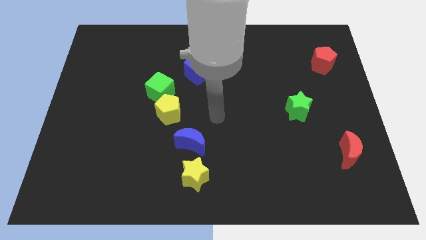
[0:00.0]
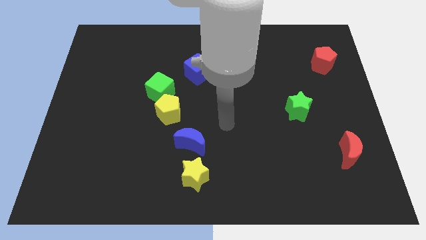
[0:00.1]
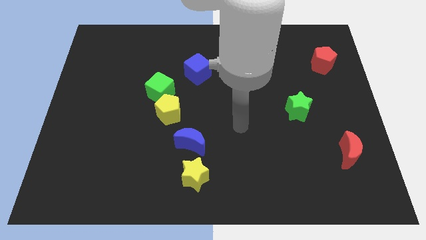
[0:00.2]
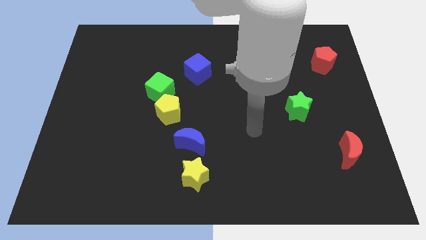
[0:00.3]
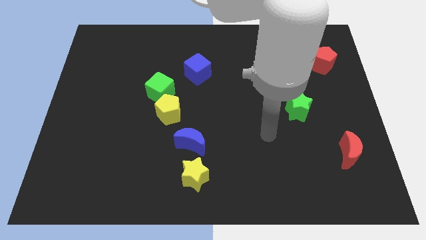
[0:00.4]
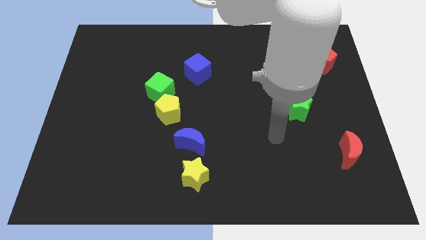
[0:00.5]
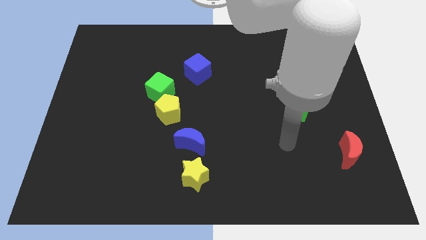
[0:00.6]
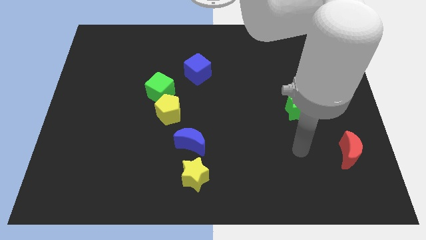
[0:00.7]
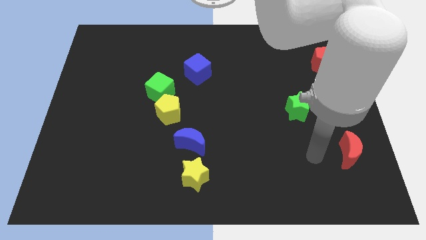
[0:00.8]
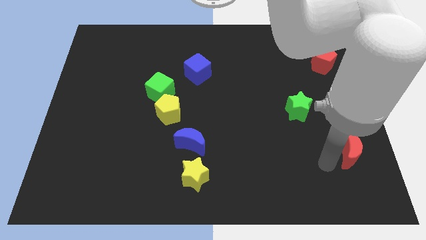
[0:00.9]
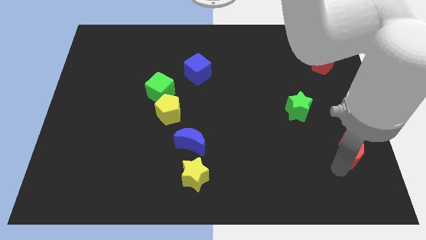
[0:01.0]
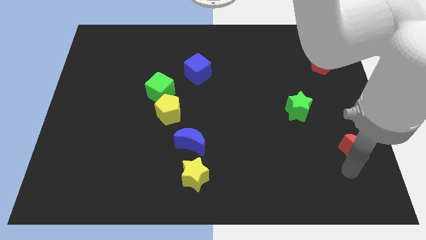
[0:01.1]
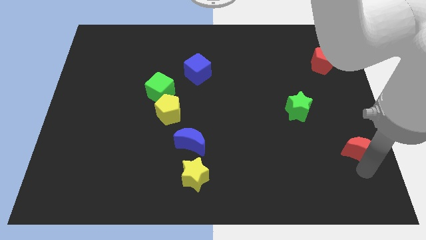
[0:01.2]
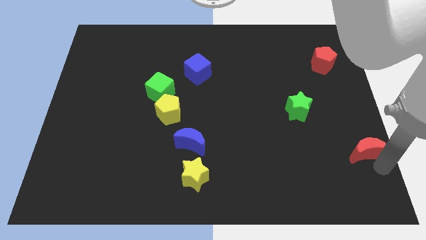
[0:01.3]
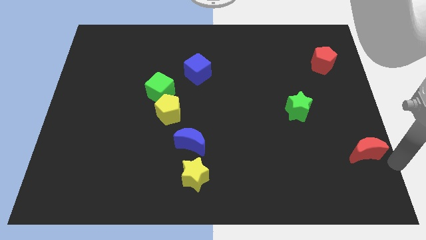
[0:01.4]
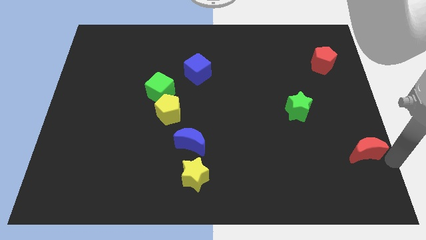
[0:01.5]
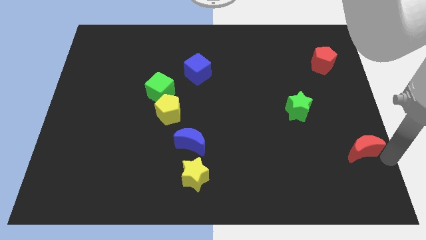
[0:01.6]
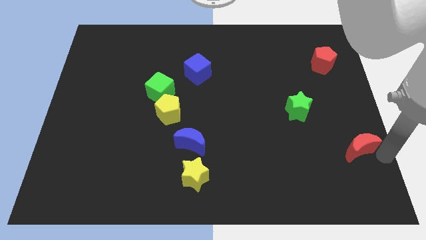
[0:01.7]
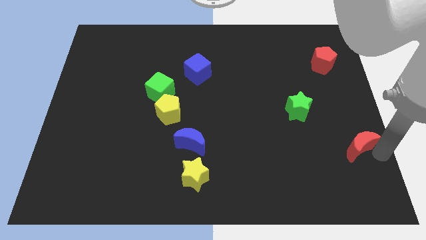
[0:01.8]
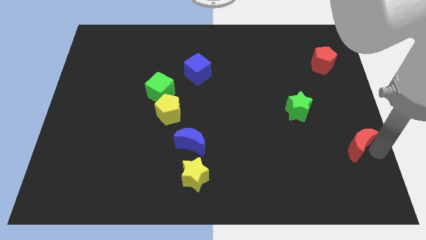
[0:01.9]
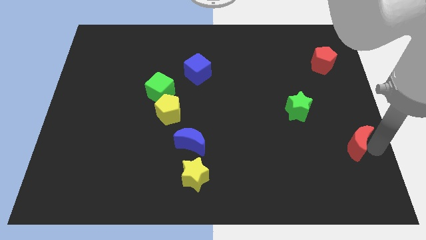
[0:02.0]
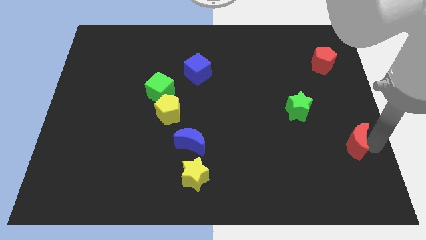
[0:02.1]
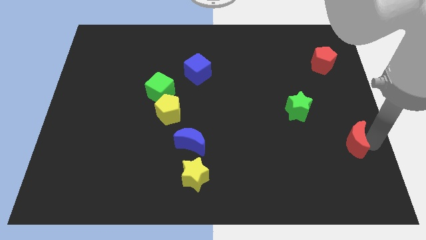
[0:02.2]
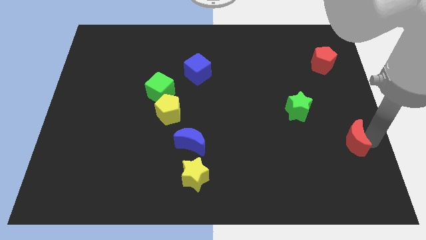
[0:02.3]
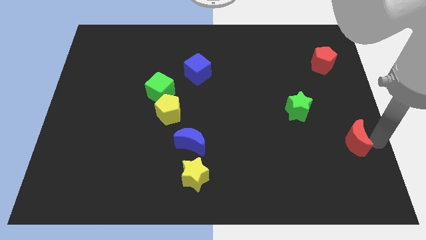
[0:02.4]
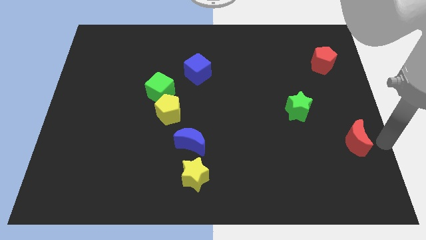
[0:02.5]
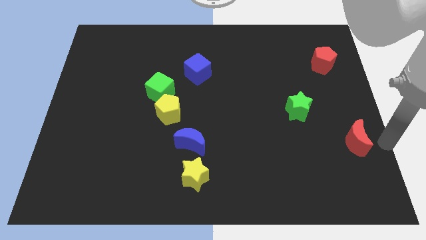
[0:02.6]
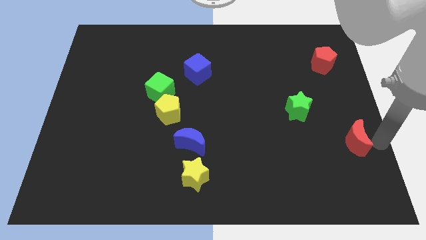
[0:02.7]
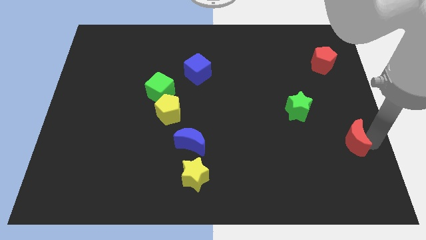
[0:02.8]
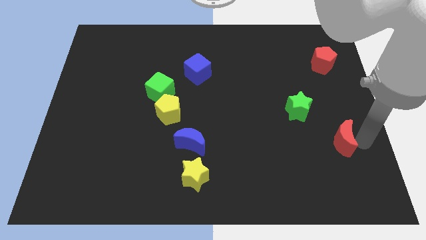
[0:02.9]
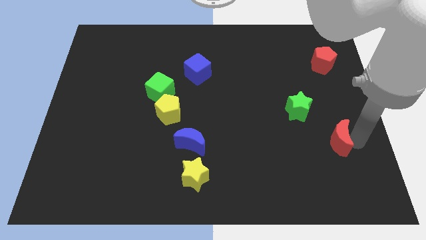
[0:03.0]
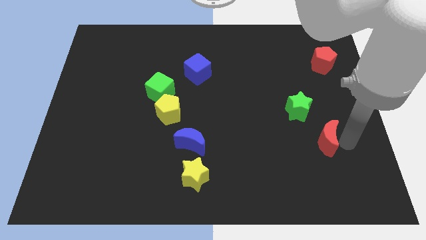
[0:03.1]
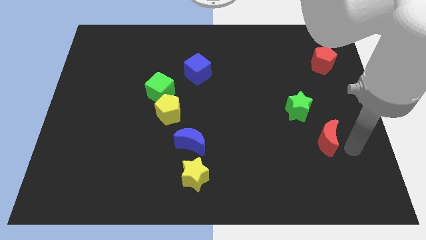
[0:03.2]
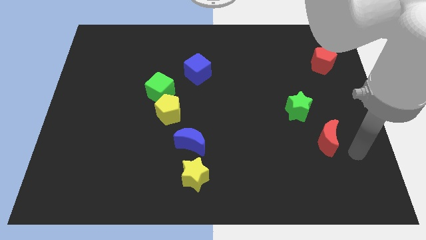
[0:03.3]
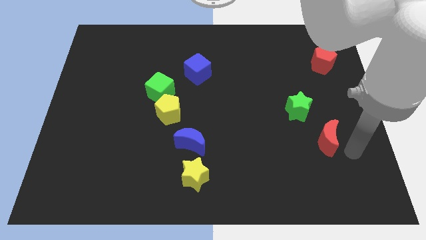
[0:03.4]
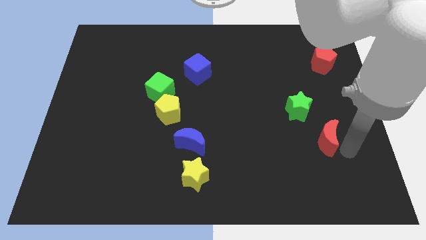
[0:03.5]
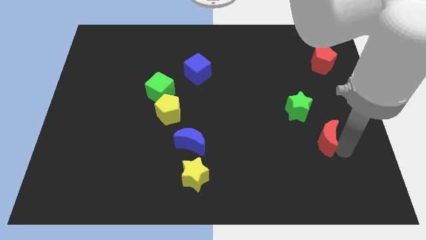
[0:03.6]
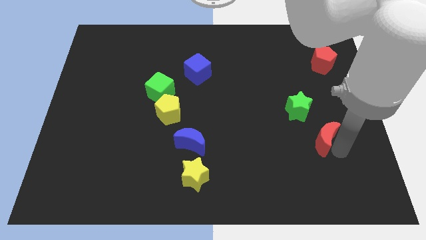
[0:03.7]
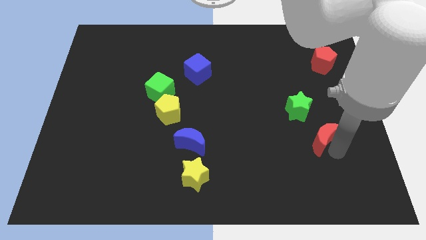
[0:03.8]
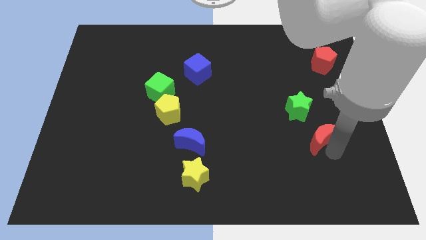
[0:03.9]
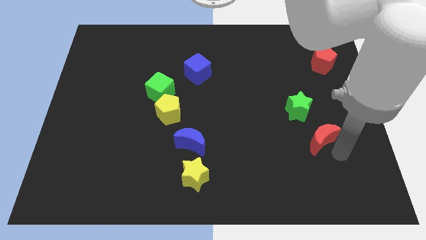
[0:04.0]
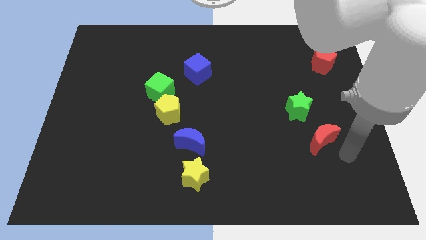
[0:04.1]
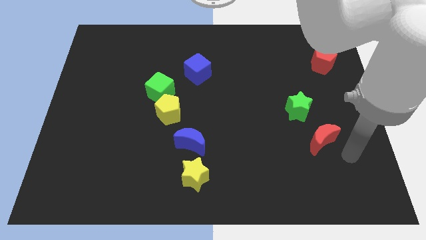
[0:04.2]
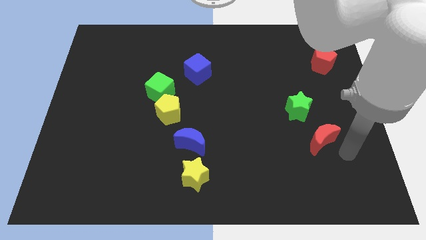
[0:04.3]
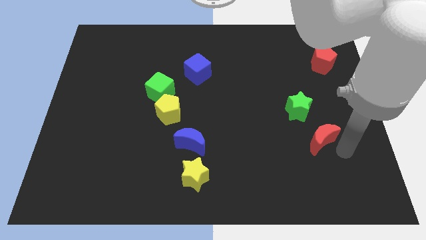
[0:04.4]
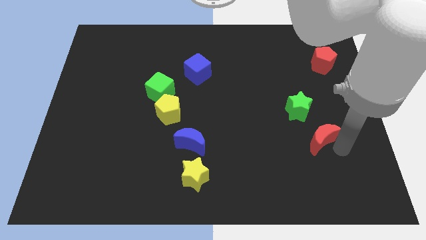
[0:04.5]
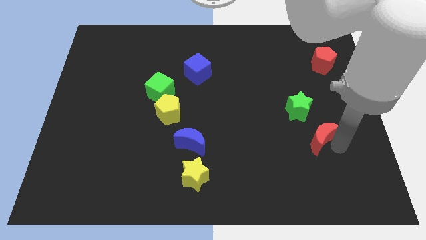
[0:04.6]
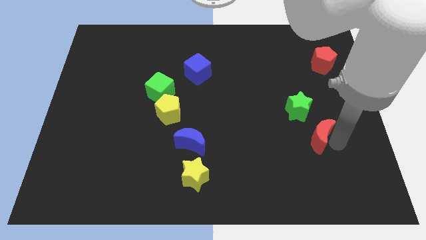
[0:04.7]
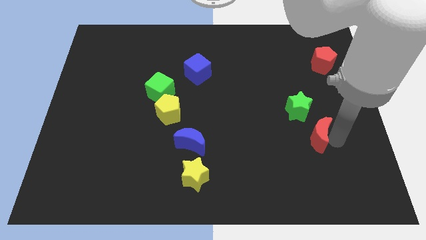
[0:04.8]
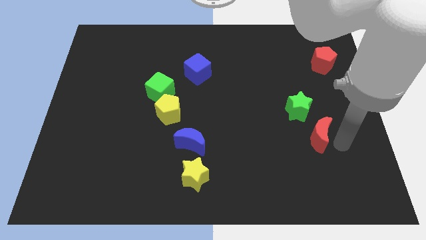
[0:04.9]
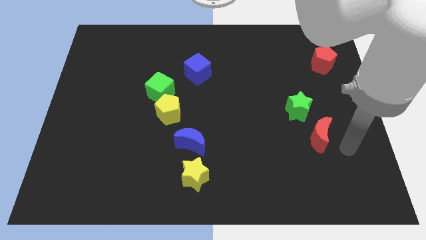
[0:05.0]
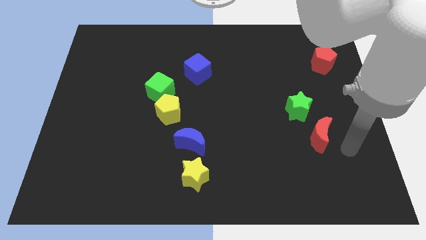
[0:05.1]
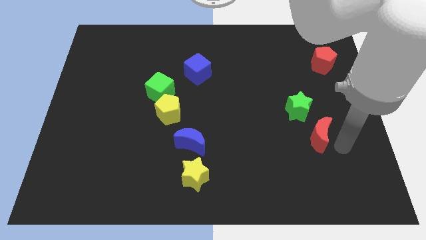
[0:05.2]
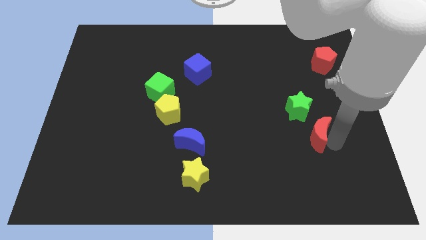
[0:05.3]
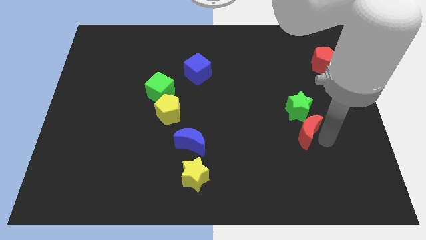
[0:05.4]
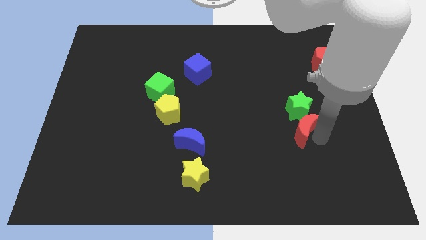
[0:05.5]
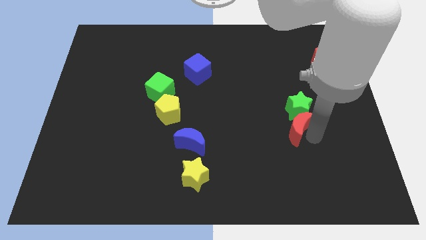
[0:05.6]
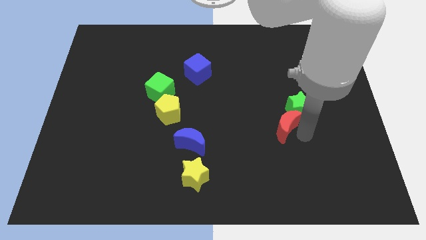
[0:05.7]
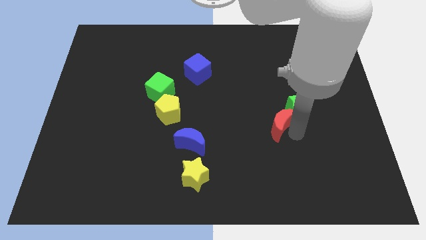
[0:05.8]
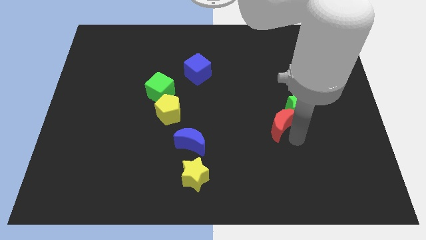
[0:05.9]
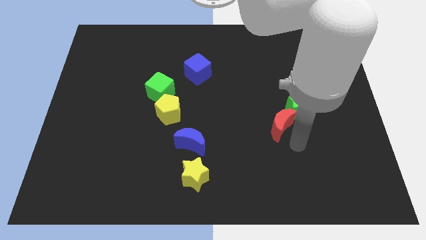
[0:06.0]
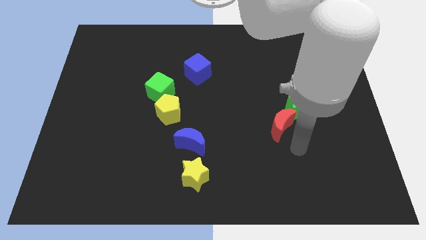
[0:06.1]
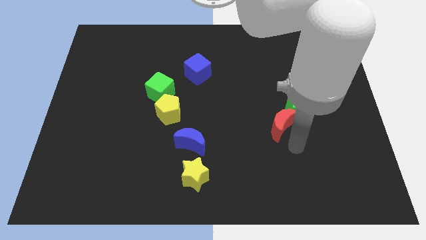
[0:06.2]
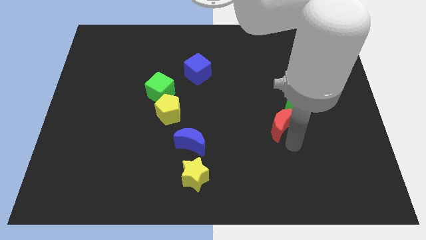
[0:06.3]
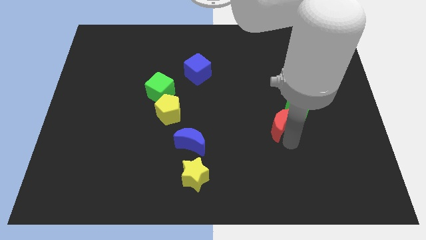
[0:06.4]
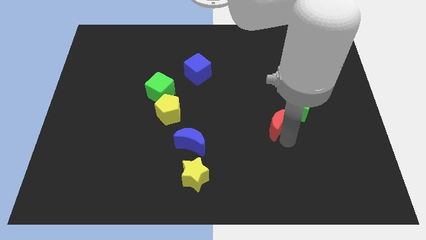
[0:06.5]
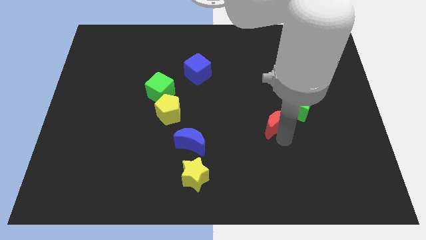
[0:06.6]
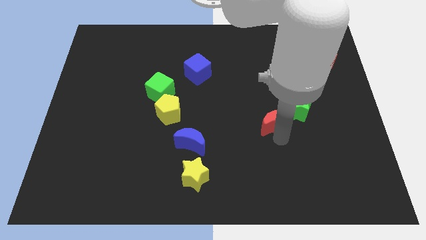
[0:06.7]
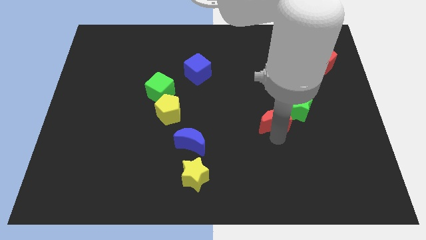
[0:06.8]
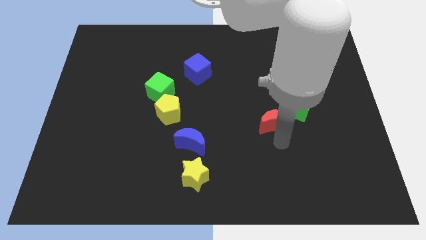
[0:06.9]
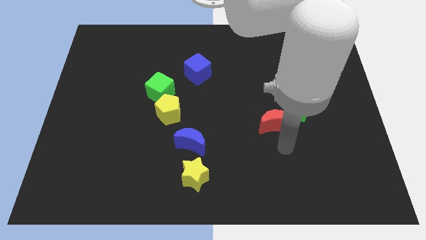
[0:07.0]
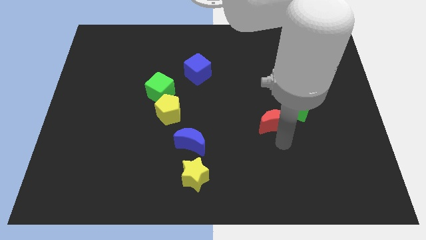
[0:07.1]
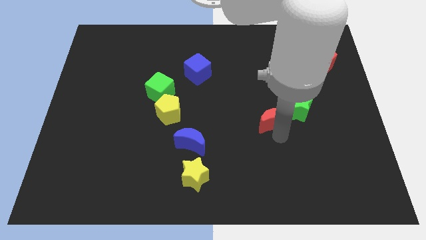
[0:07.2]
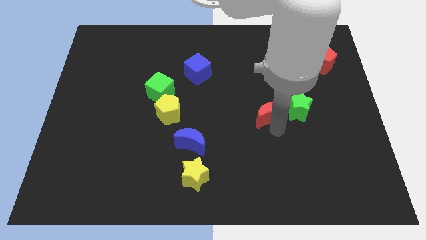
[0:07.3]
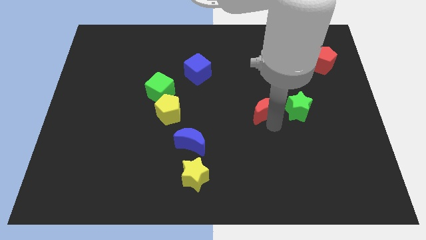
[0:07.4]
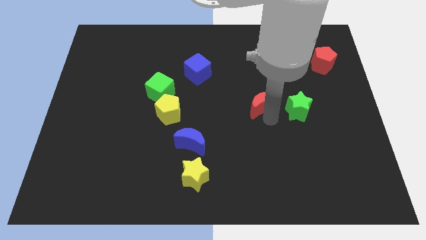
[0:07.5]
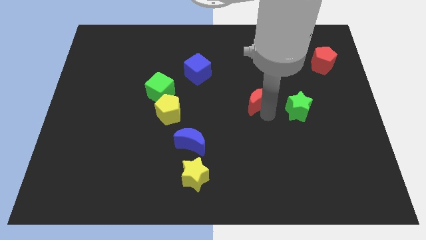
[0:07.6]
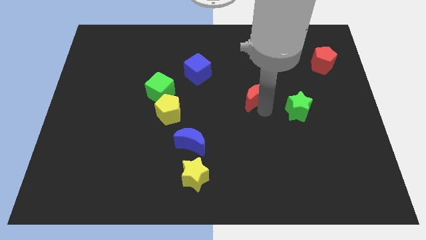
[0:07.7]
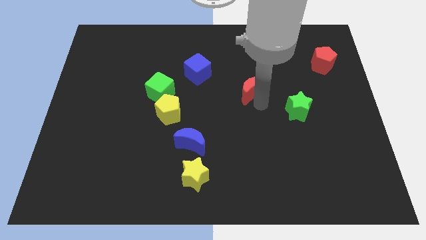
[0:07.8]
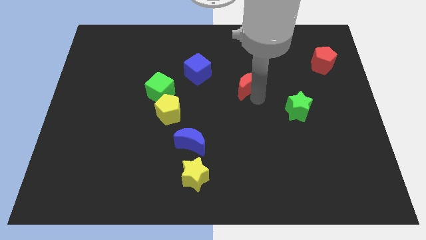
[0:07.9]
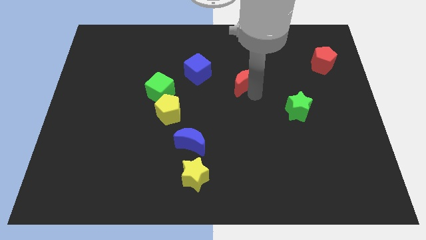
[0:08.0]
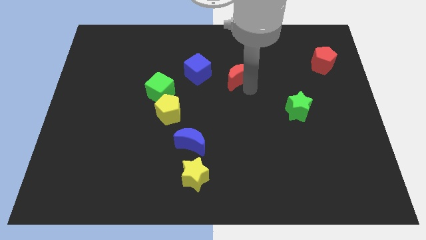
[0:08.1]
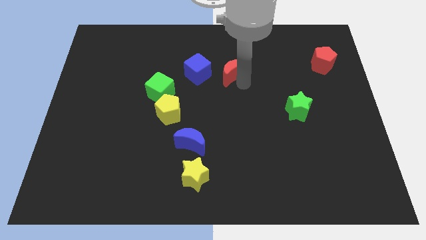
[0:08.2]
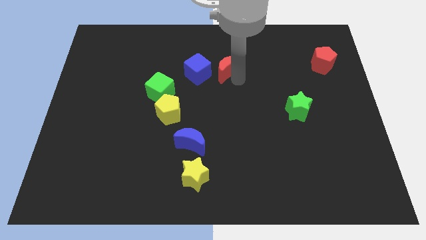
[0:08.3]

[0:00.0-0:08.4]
push the red moon to the top right side of the blue cube
